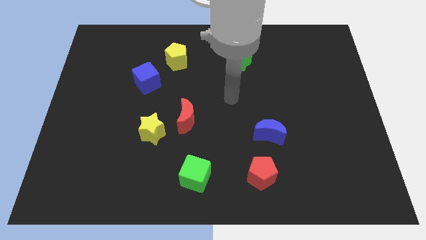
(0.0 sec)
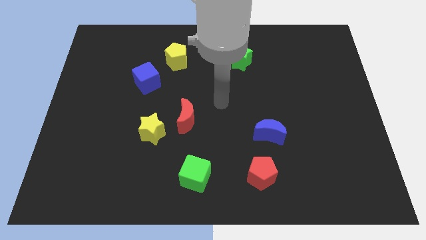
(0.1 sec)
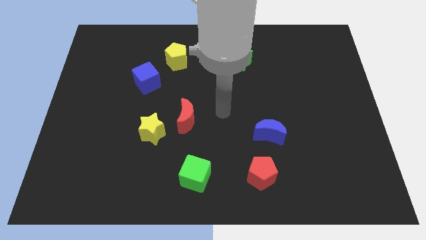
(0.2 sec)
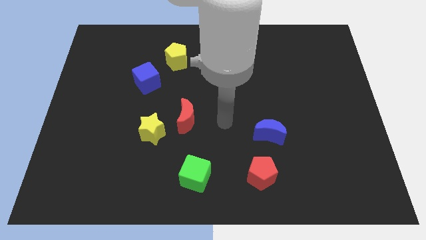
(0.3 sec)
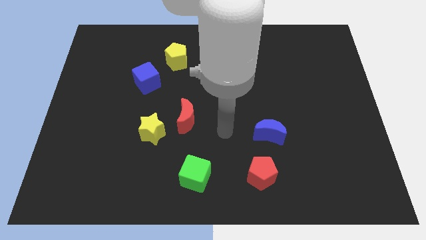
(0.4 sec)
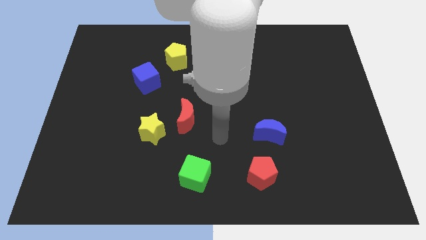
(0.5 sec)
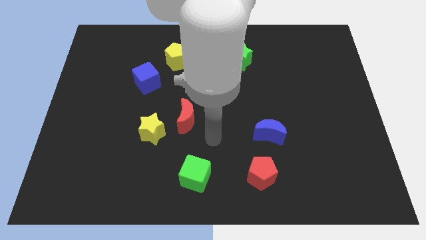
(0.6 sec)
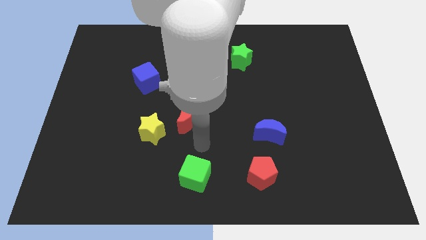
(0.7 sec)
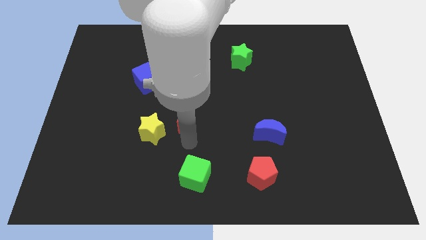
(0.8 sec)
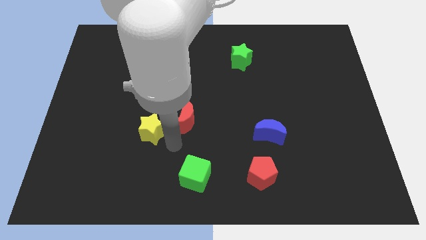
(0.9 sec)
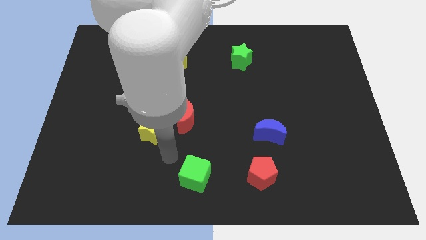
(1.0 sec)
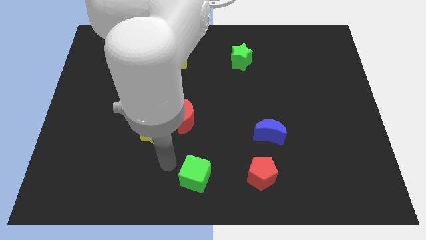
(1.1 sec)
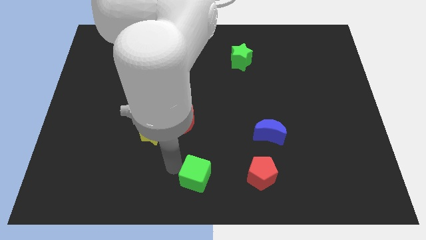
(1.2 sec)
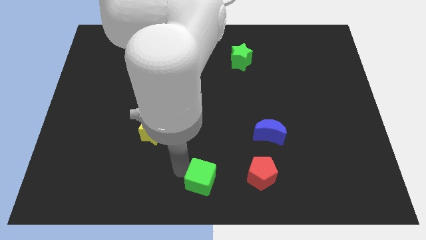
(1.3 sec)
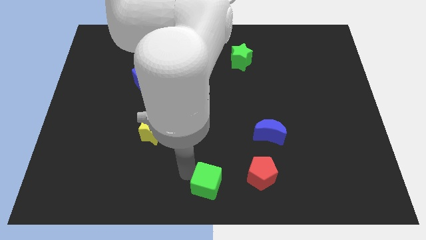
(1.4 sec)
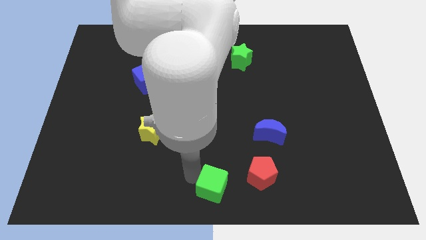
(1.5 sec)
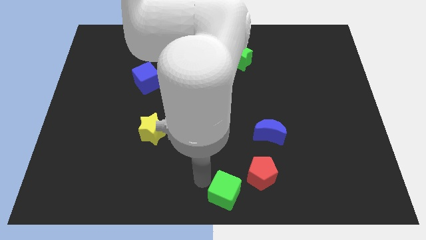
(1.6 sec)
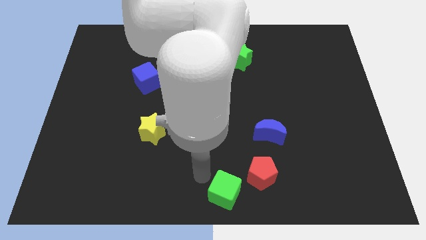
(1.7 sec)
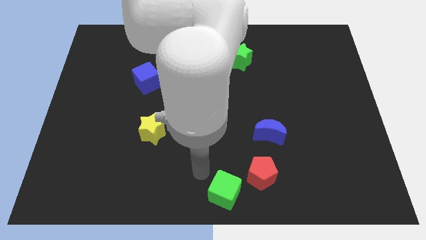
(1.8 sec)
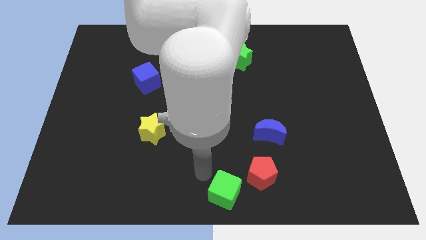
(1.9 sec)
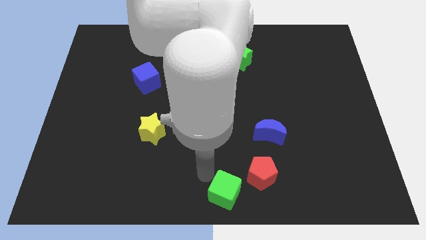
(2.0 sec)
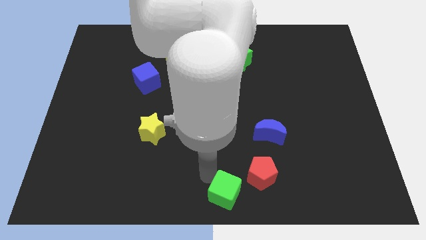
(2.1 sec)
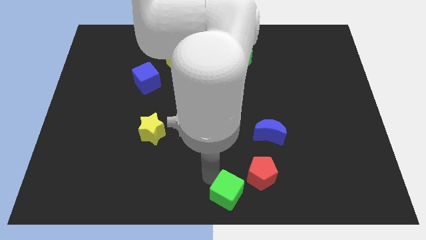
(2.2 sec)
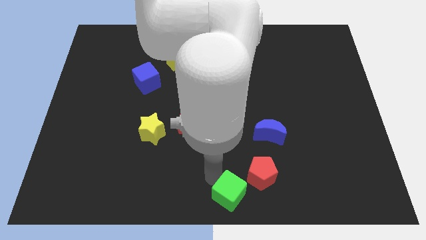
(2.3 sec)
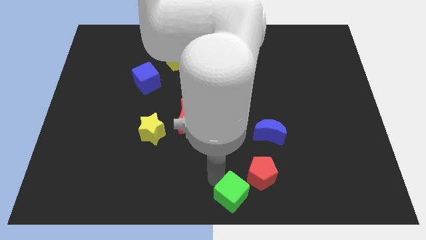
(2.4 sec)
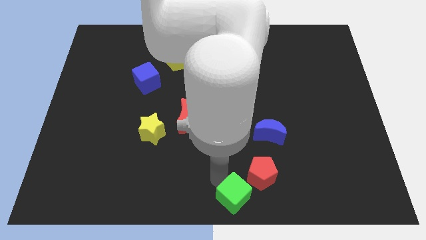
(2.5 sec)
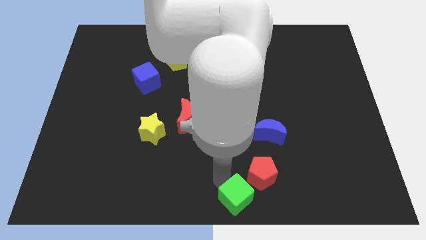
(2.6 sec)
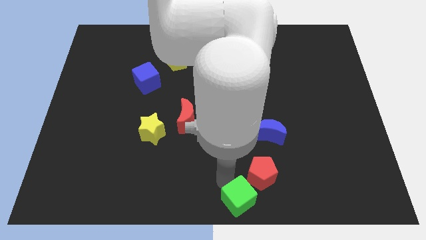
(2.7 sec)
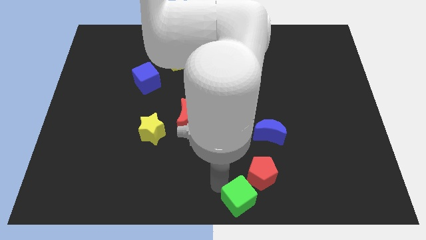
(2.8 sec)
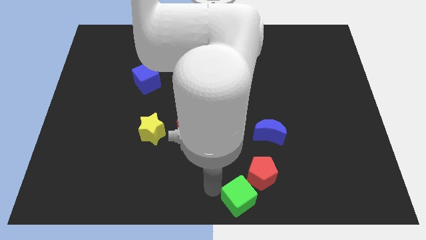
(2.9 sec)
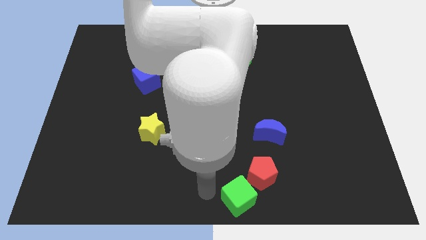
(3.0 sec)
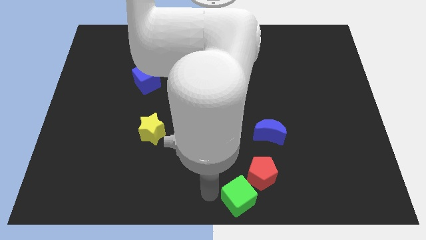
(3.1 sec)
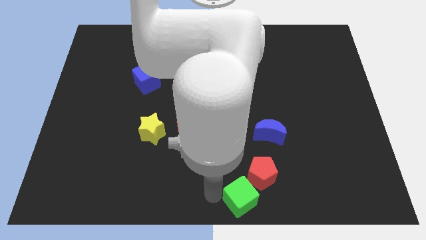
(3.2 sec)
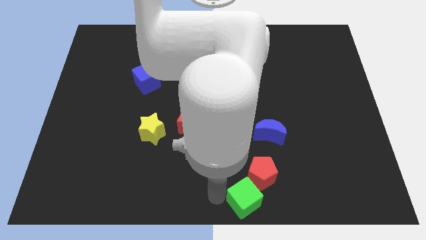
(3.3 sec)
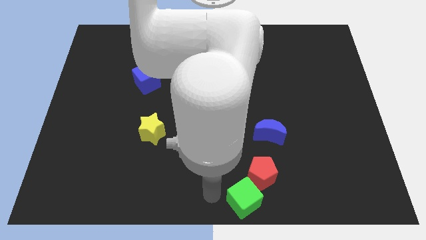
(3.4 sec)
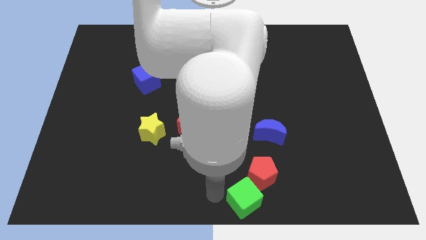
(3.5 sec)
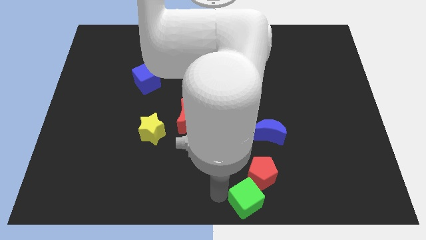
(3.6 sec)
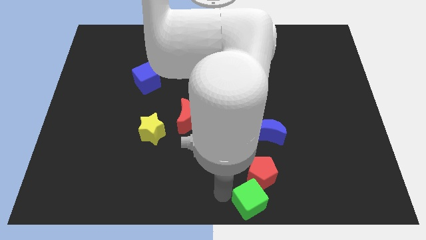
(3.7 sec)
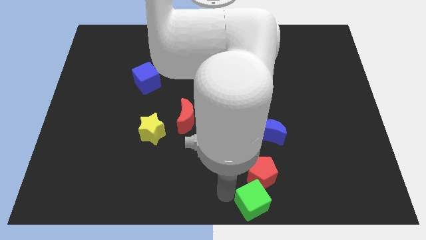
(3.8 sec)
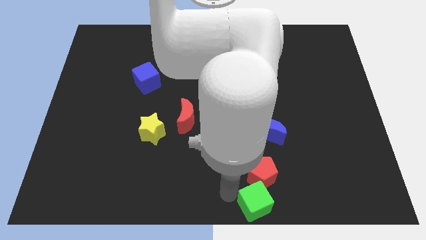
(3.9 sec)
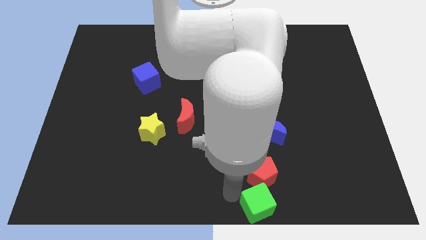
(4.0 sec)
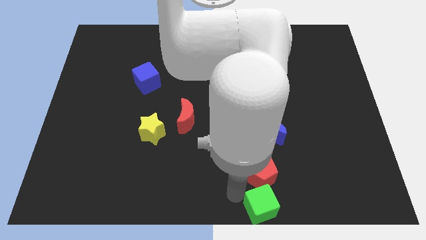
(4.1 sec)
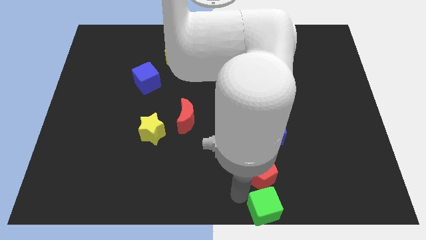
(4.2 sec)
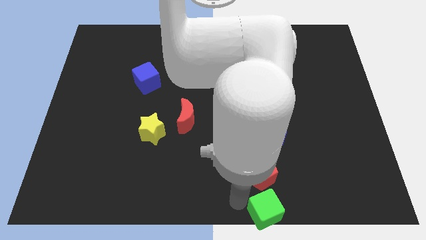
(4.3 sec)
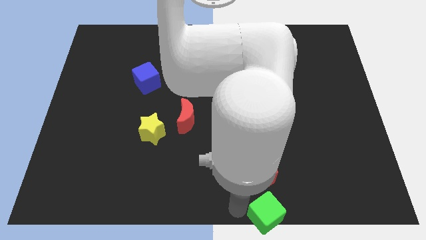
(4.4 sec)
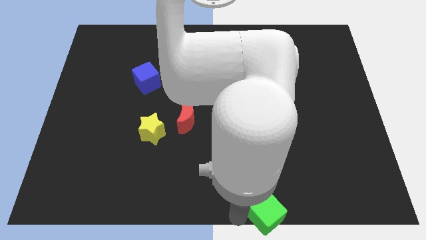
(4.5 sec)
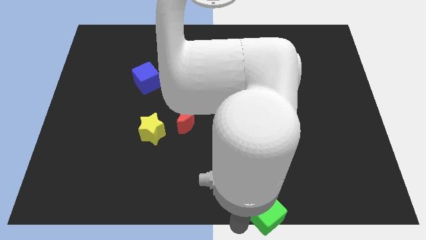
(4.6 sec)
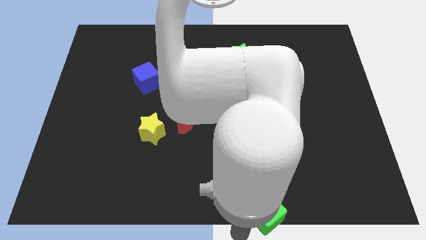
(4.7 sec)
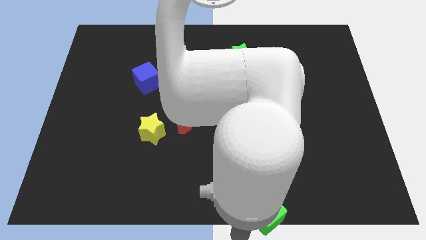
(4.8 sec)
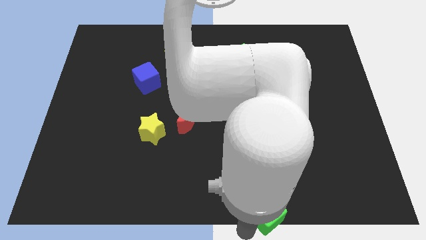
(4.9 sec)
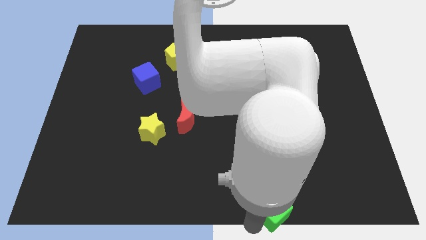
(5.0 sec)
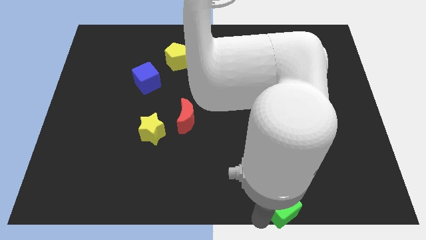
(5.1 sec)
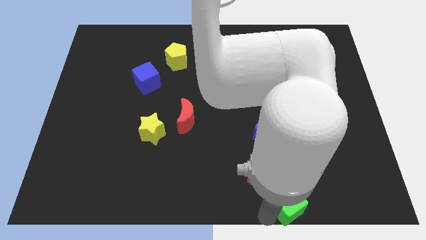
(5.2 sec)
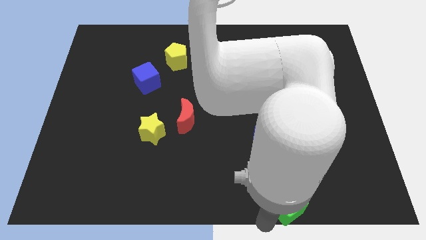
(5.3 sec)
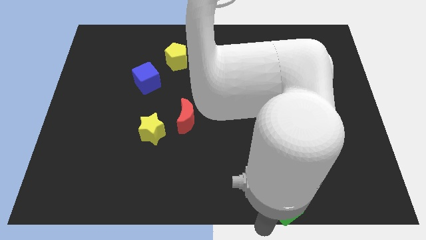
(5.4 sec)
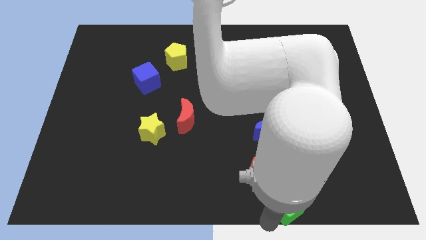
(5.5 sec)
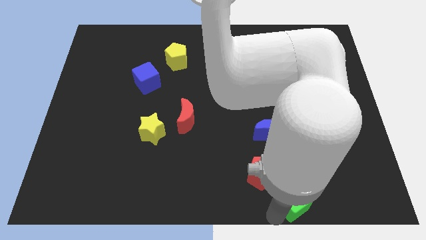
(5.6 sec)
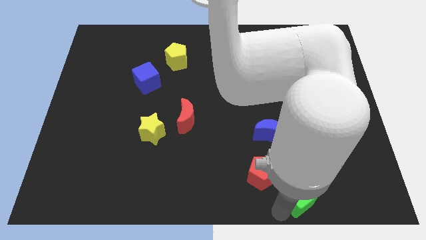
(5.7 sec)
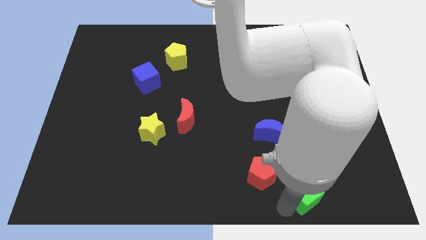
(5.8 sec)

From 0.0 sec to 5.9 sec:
slide the green cube right

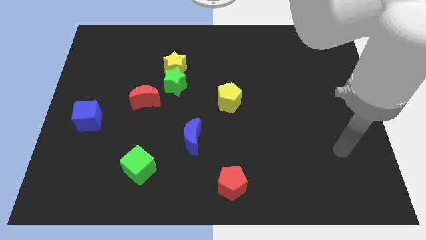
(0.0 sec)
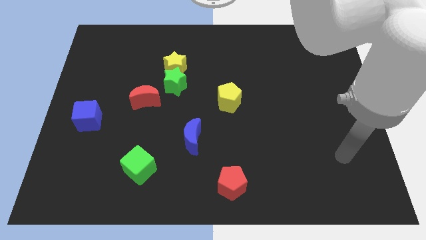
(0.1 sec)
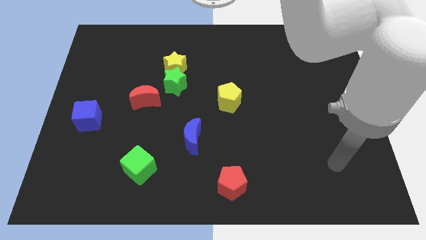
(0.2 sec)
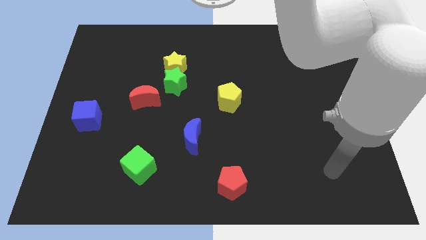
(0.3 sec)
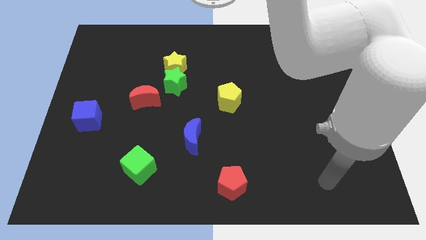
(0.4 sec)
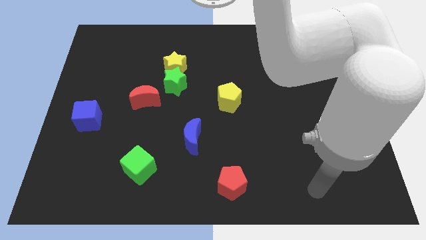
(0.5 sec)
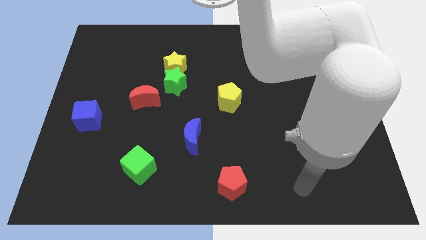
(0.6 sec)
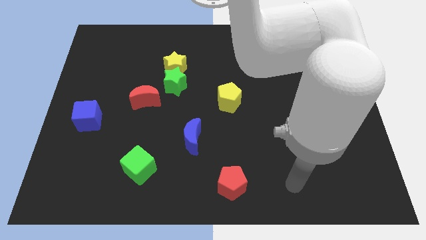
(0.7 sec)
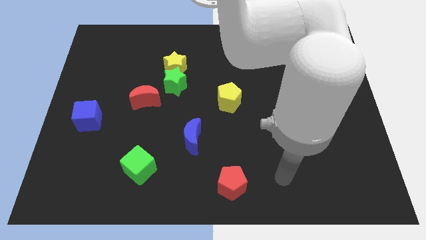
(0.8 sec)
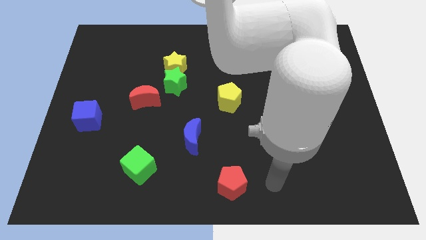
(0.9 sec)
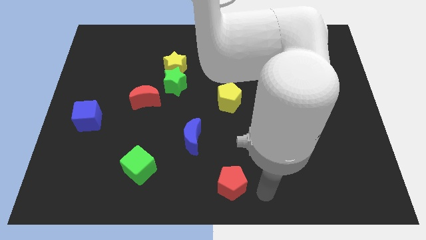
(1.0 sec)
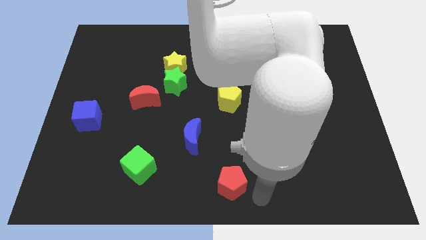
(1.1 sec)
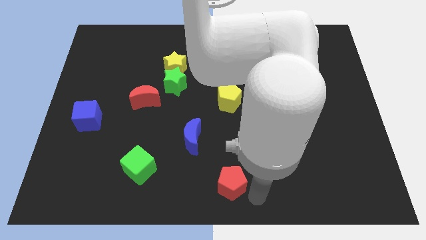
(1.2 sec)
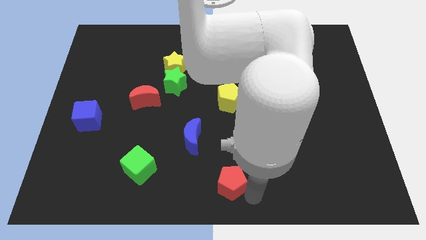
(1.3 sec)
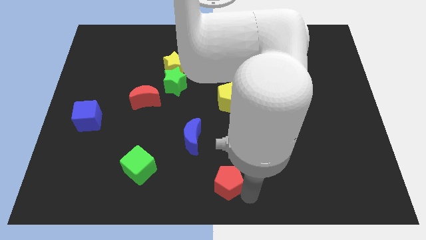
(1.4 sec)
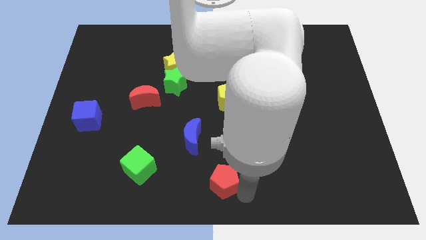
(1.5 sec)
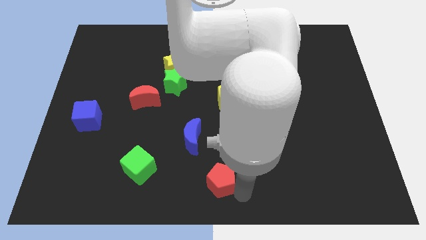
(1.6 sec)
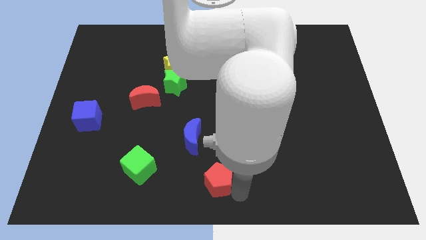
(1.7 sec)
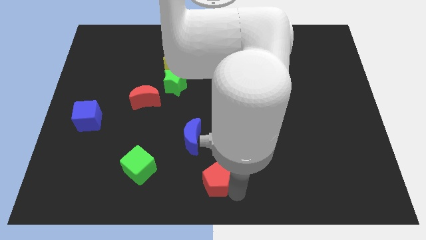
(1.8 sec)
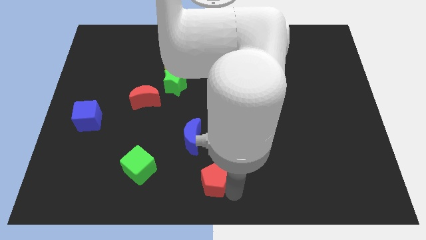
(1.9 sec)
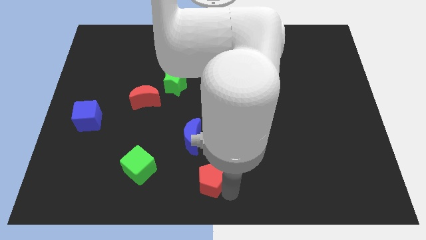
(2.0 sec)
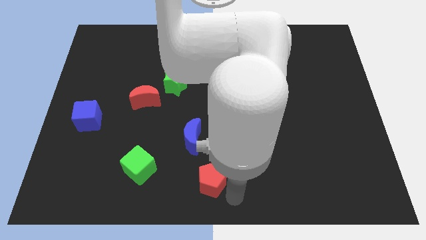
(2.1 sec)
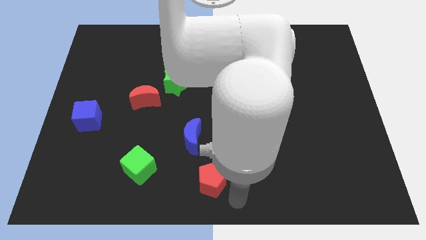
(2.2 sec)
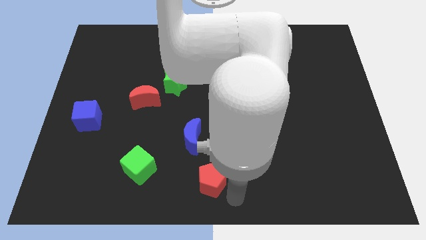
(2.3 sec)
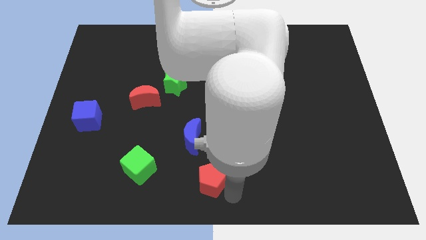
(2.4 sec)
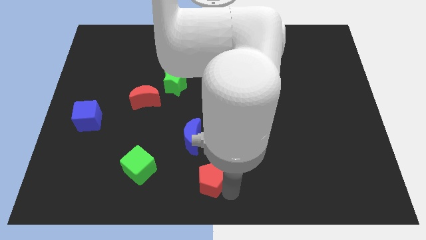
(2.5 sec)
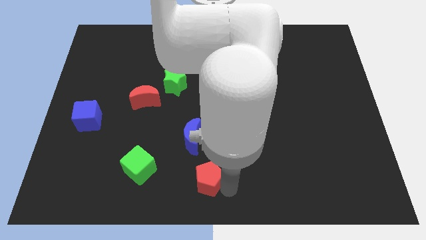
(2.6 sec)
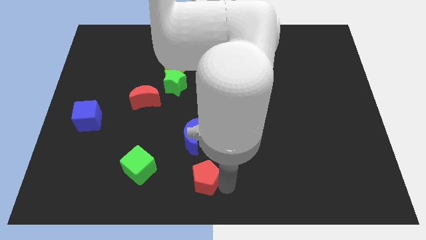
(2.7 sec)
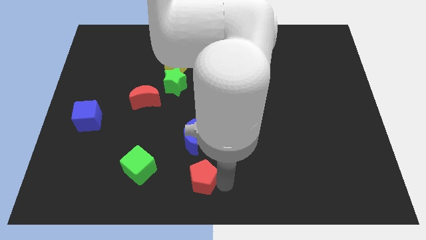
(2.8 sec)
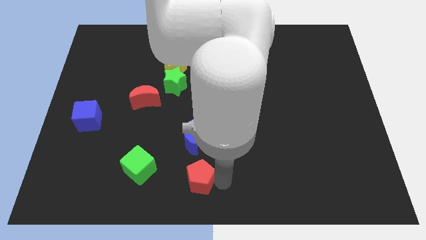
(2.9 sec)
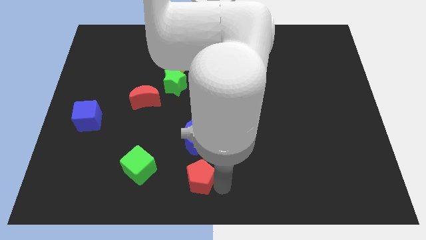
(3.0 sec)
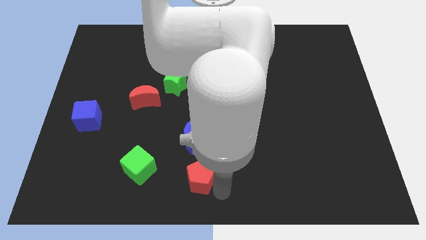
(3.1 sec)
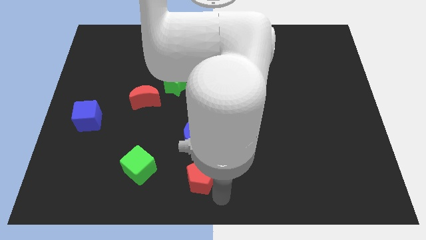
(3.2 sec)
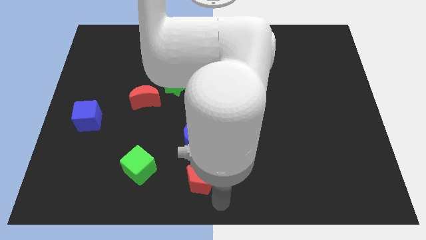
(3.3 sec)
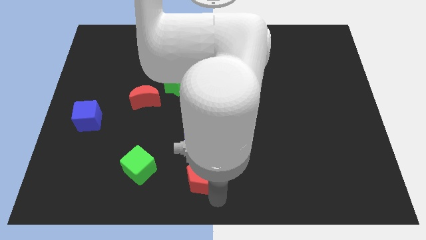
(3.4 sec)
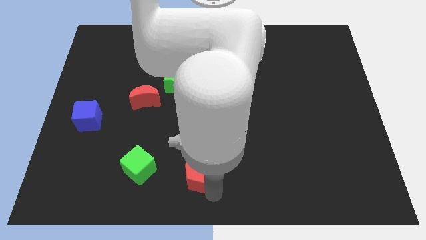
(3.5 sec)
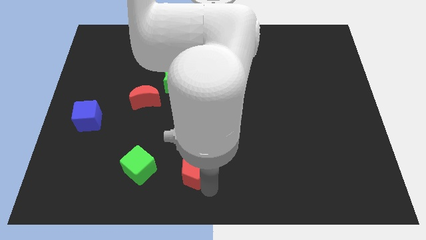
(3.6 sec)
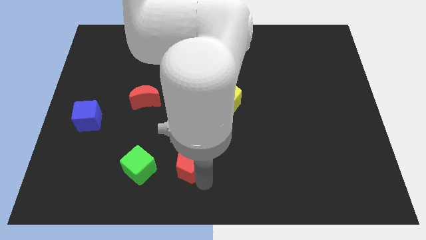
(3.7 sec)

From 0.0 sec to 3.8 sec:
slide the red pentagon a little diagonally upwards and left
